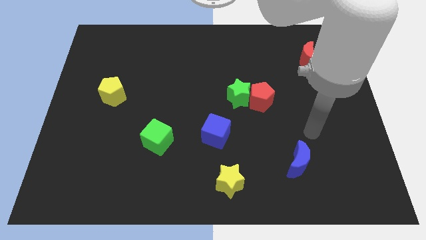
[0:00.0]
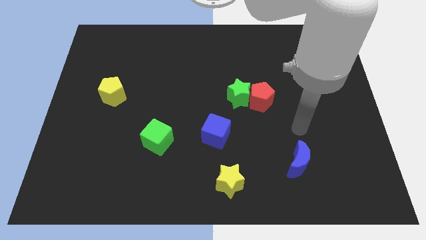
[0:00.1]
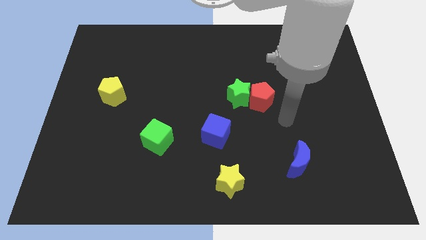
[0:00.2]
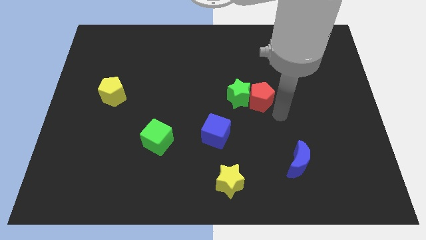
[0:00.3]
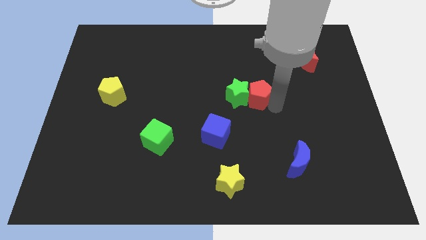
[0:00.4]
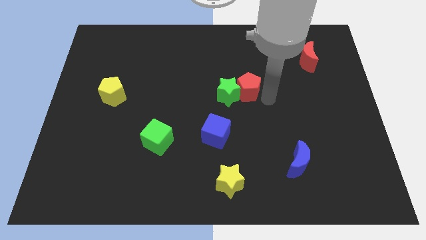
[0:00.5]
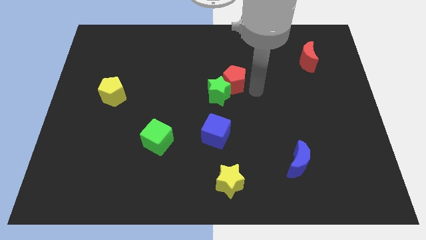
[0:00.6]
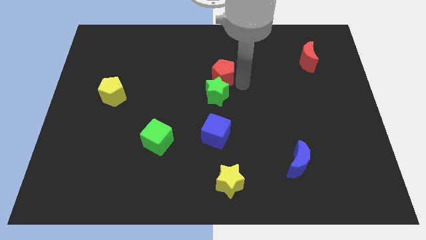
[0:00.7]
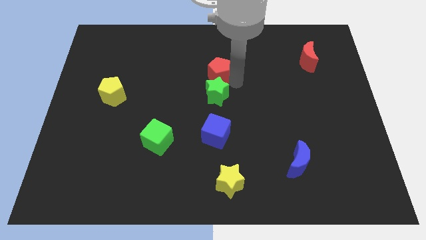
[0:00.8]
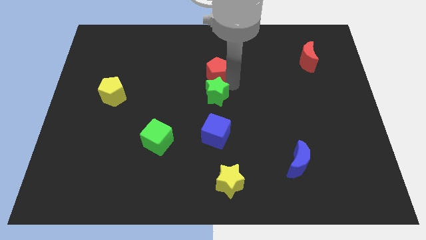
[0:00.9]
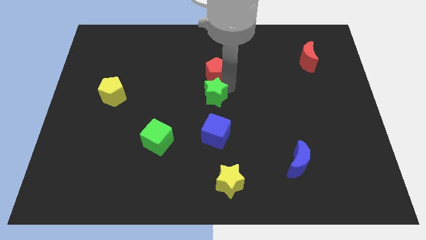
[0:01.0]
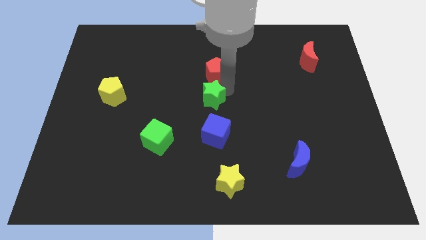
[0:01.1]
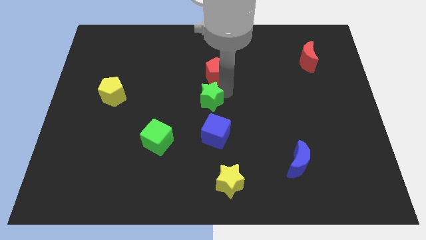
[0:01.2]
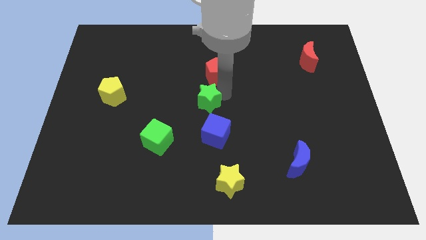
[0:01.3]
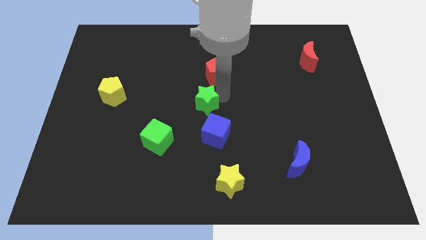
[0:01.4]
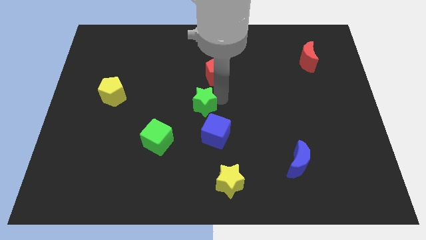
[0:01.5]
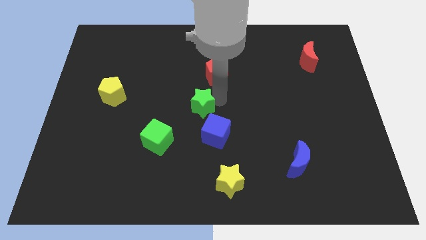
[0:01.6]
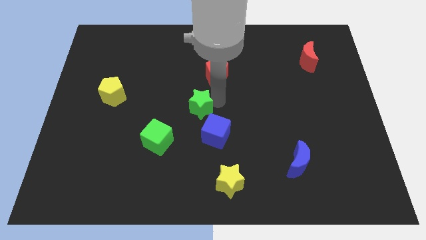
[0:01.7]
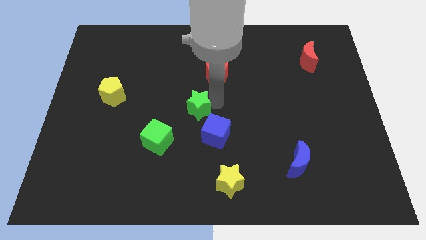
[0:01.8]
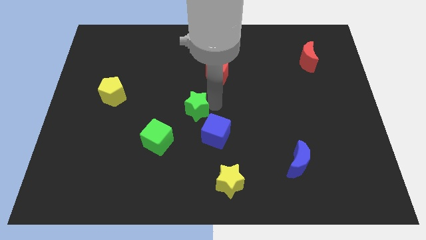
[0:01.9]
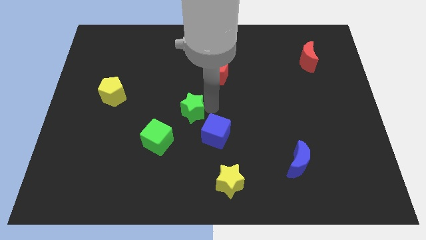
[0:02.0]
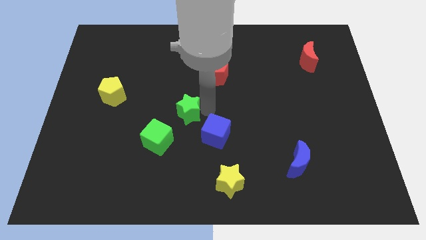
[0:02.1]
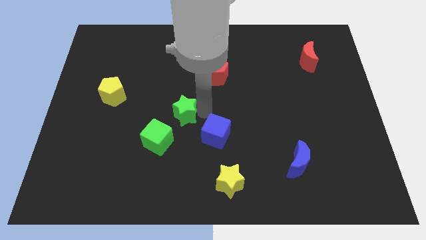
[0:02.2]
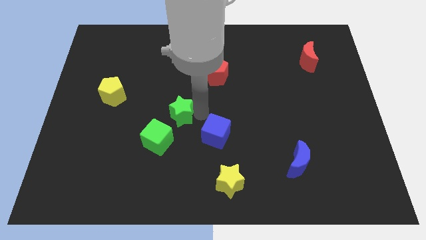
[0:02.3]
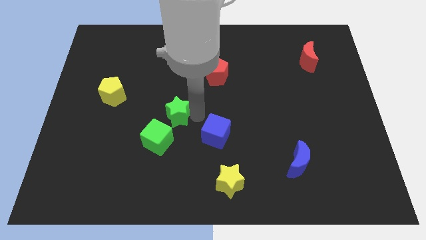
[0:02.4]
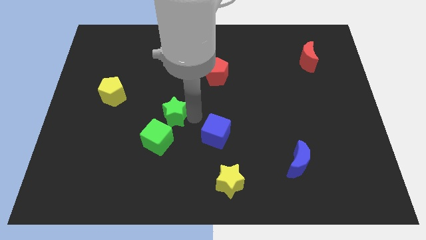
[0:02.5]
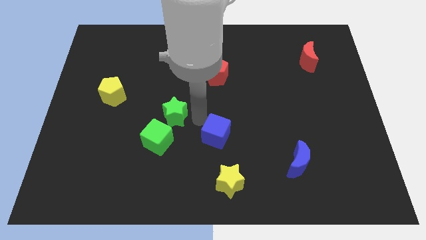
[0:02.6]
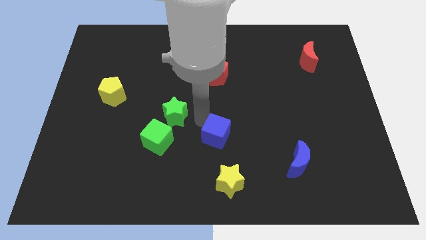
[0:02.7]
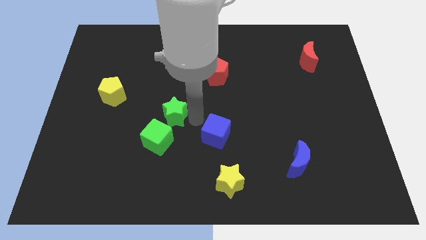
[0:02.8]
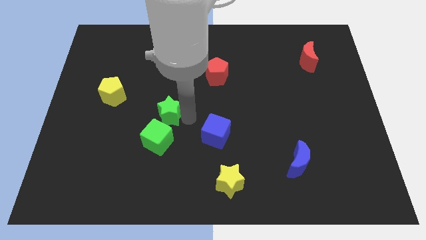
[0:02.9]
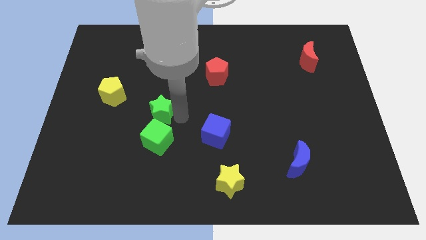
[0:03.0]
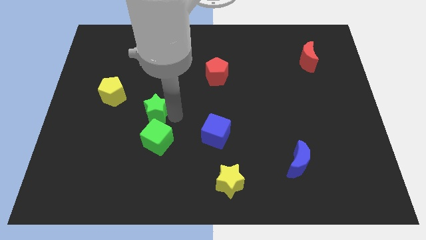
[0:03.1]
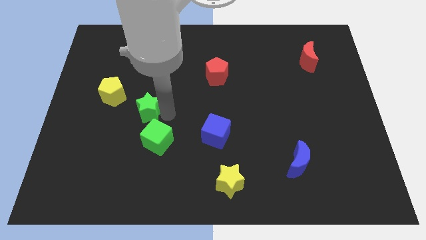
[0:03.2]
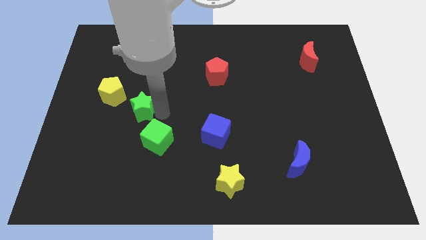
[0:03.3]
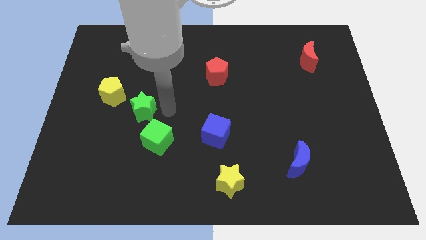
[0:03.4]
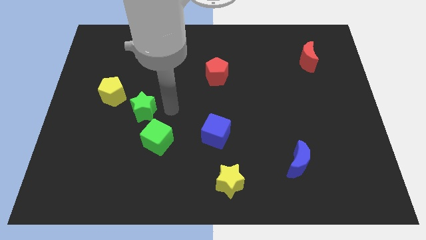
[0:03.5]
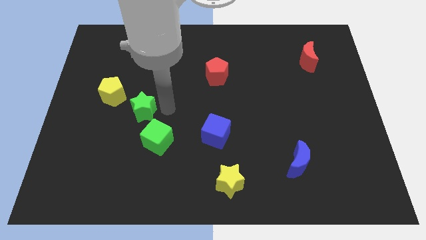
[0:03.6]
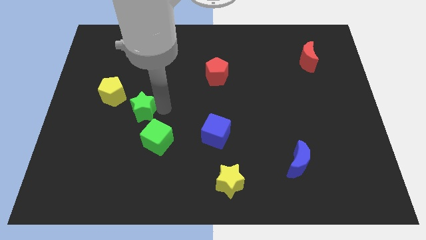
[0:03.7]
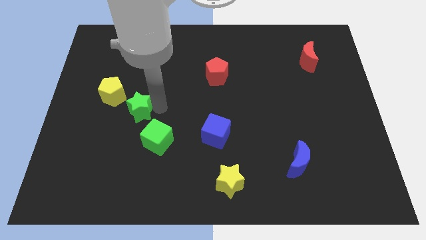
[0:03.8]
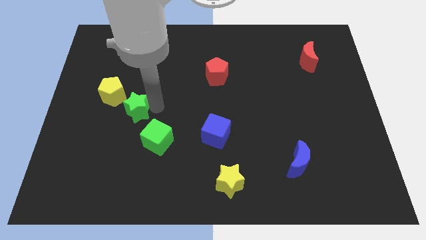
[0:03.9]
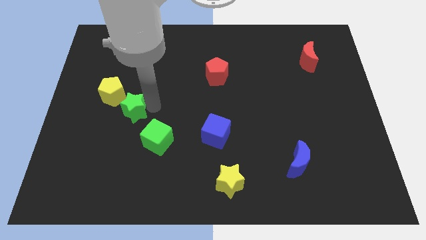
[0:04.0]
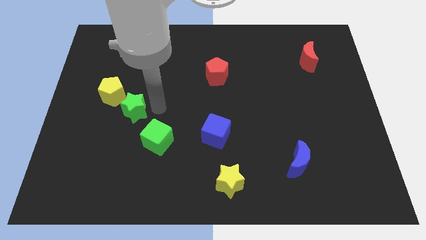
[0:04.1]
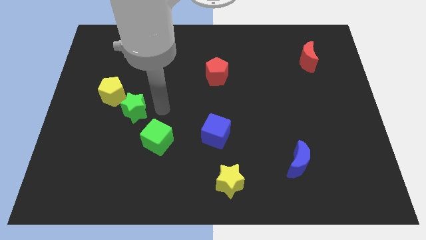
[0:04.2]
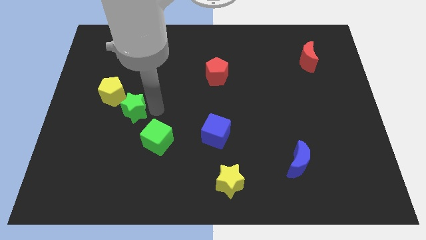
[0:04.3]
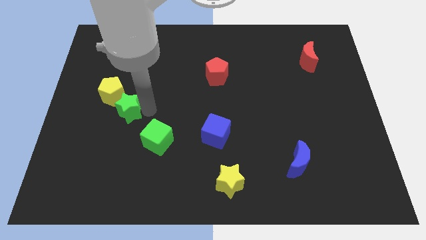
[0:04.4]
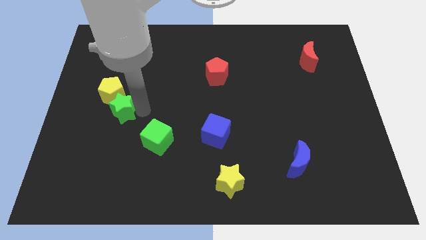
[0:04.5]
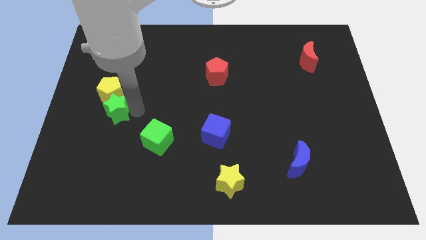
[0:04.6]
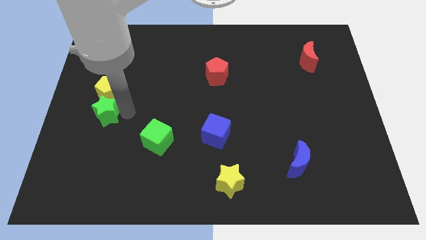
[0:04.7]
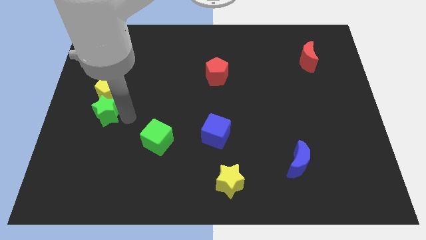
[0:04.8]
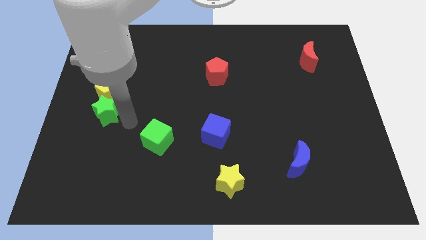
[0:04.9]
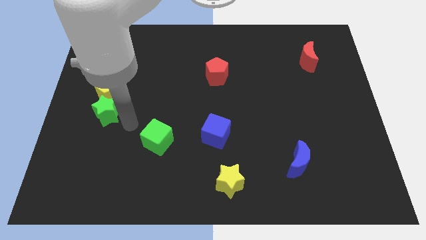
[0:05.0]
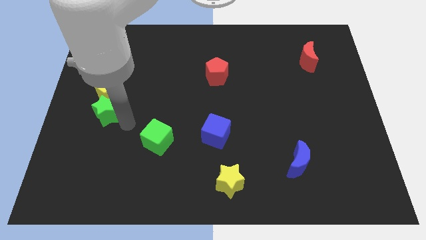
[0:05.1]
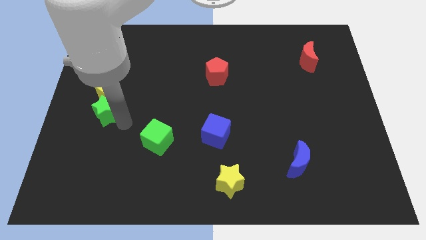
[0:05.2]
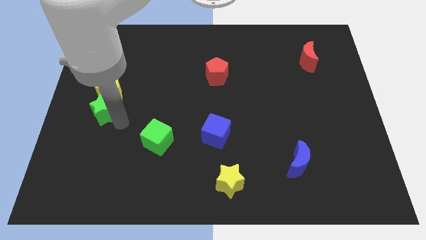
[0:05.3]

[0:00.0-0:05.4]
move the green star to the left side of the board
